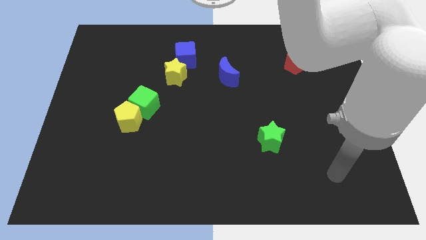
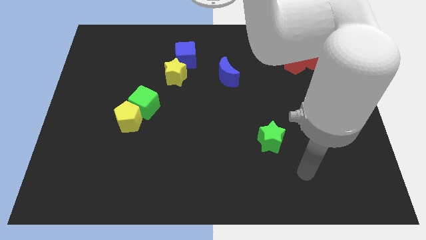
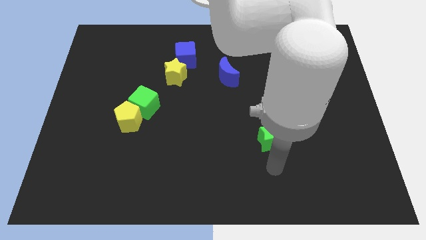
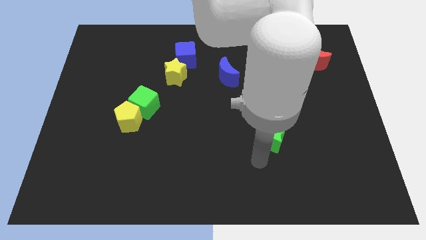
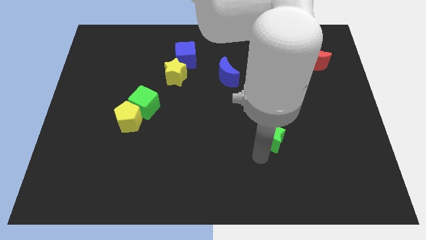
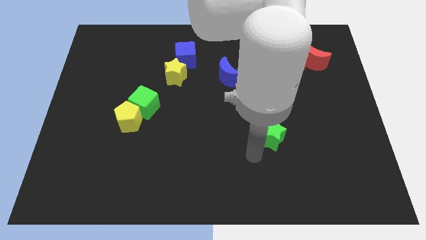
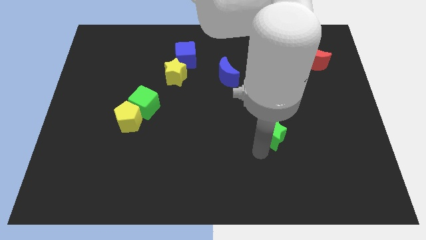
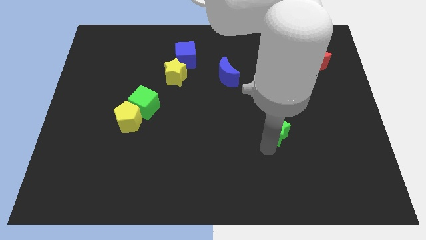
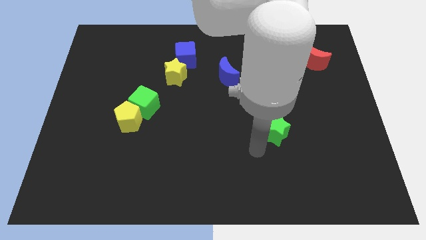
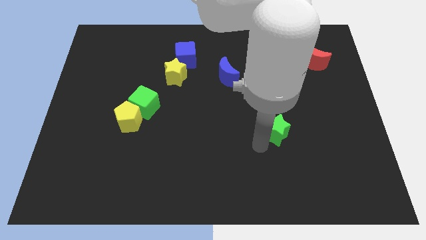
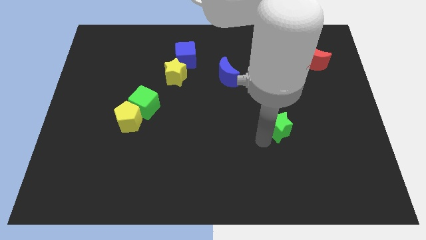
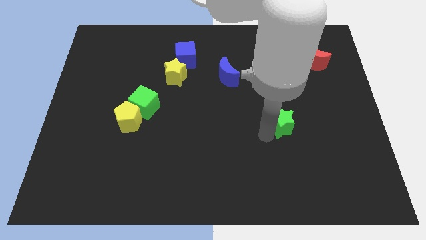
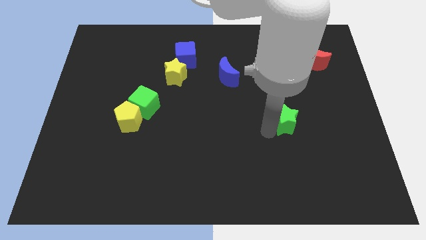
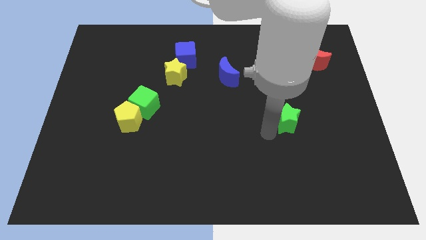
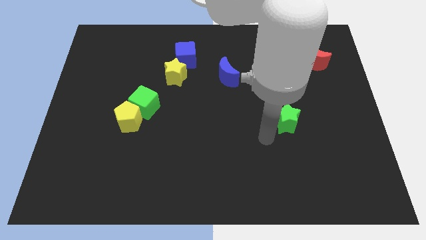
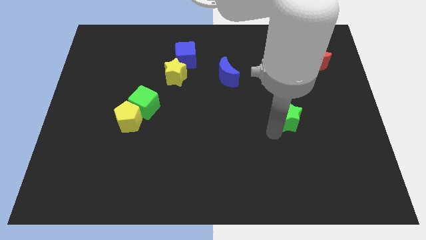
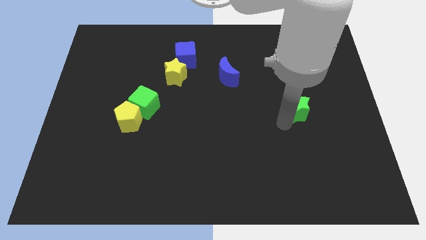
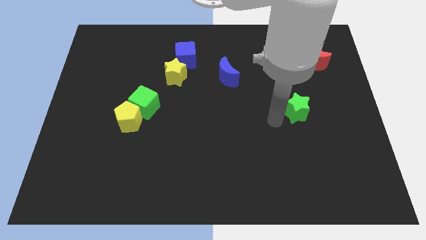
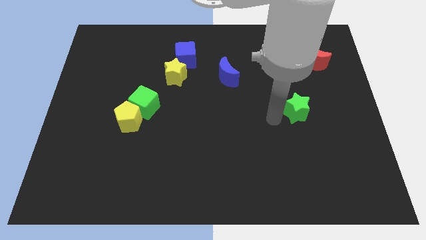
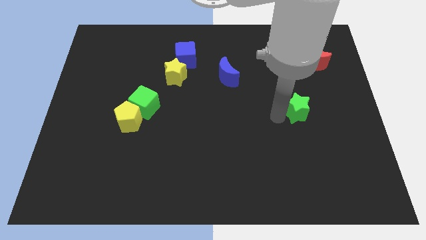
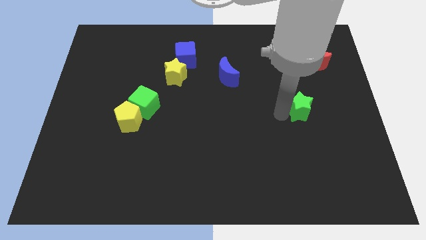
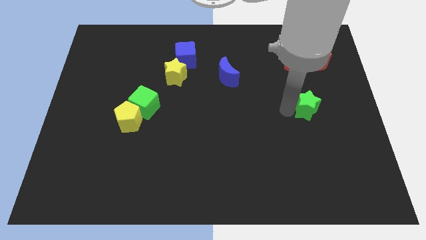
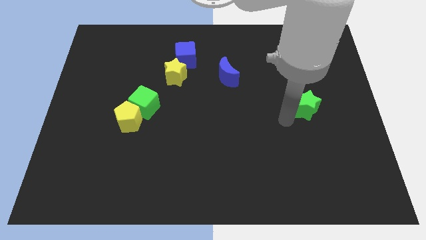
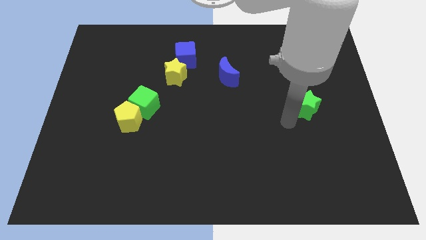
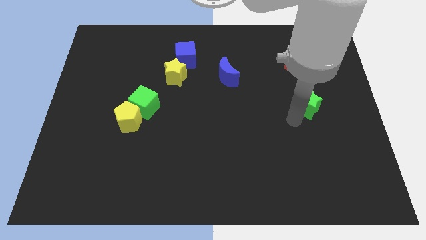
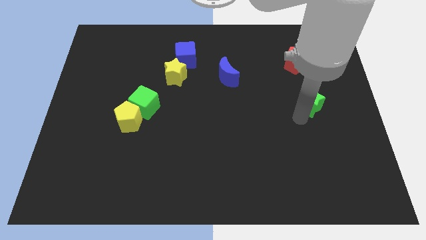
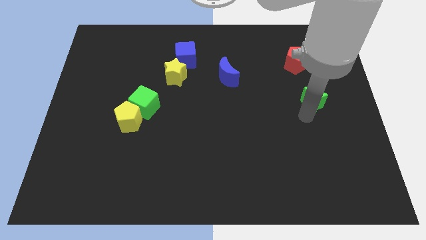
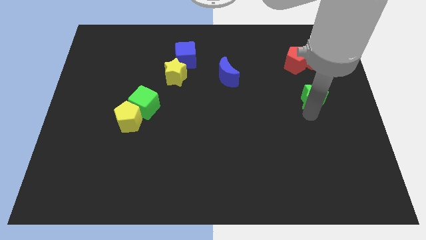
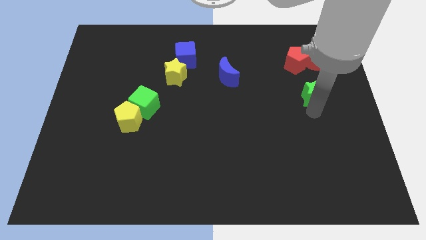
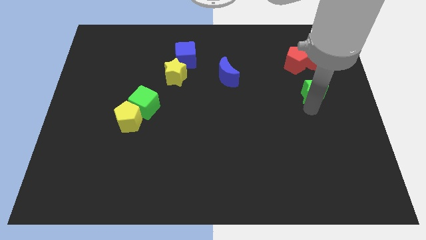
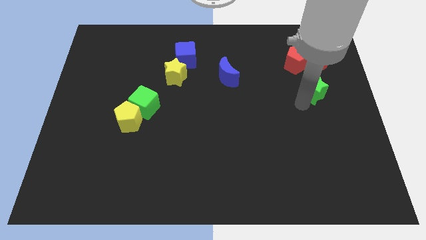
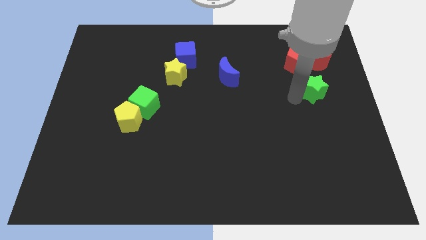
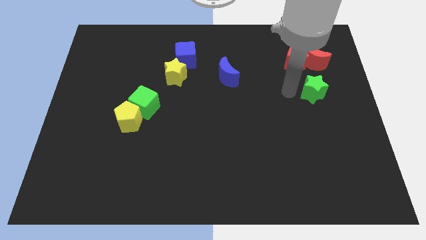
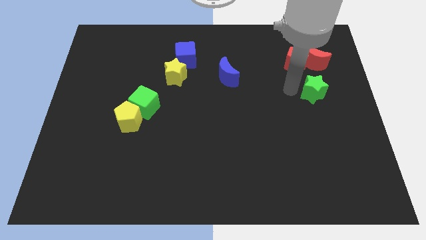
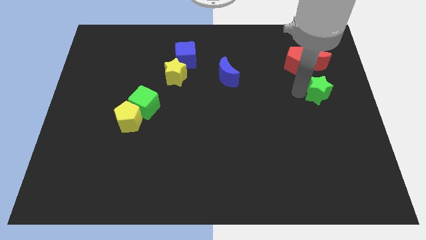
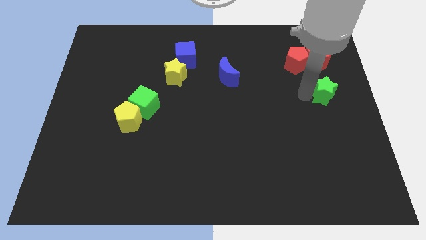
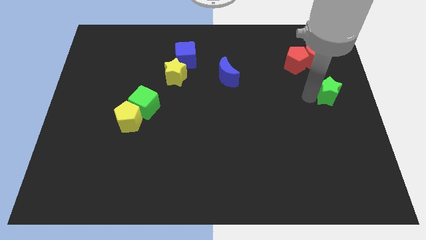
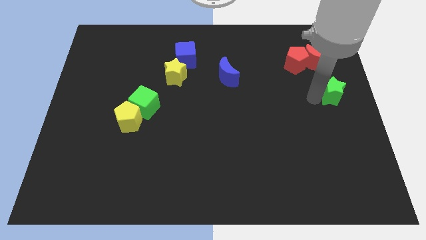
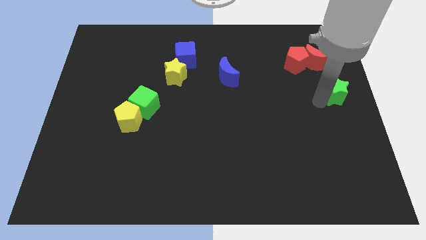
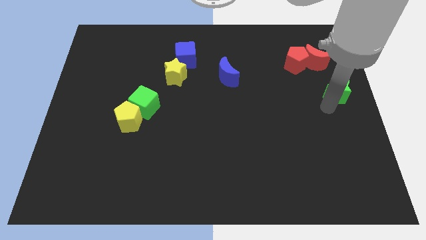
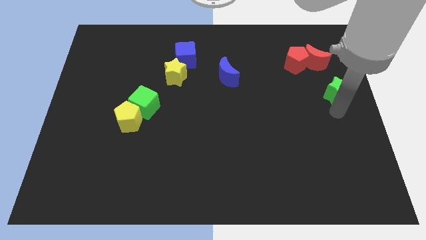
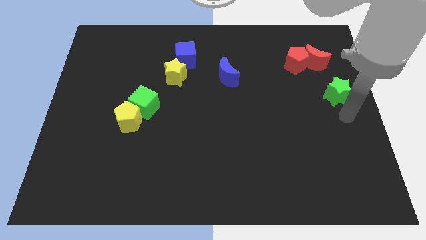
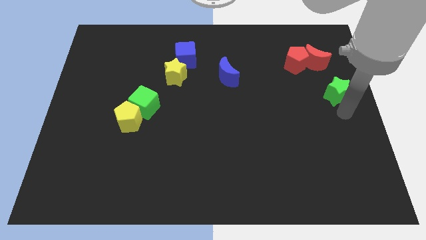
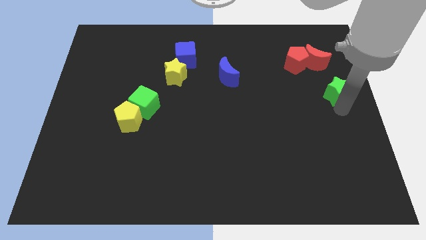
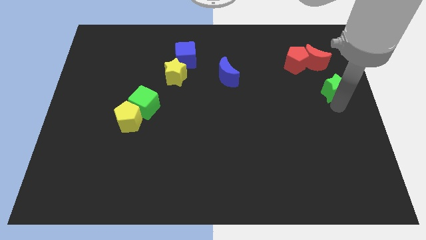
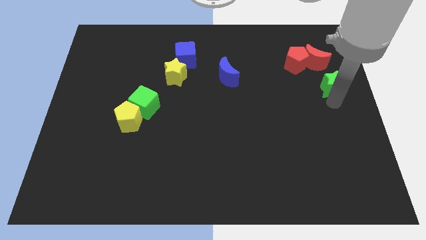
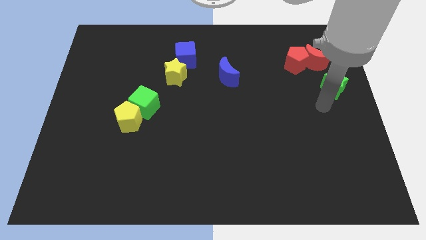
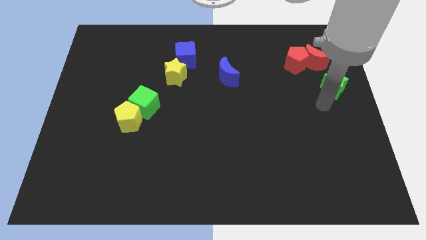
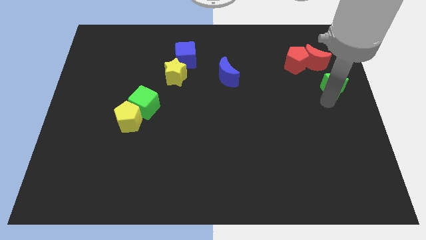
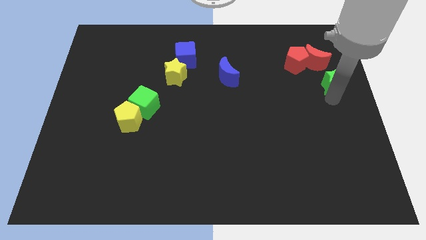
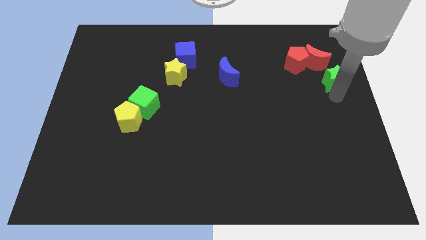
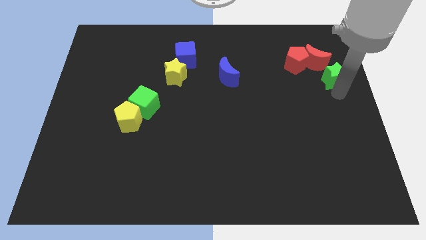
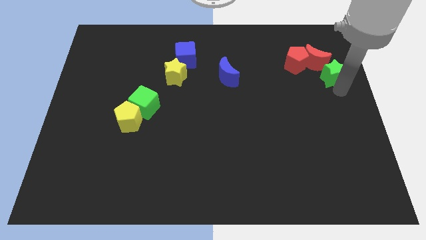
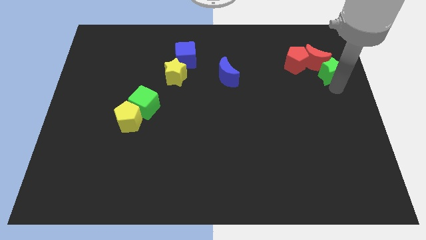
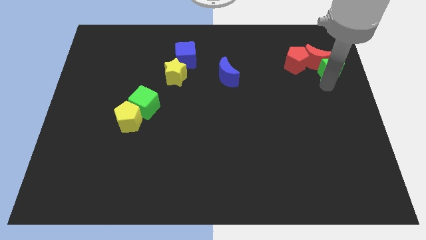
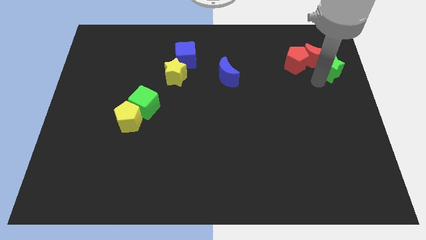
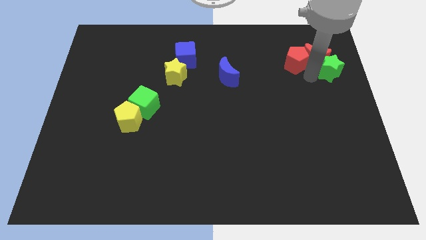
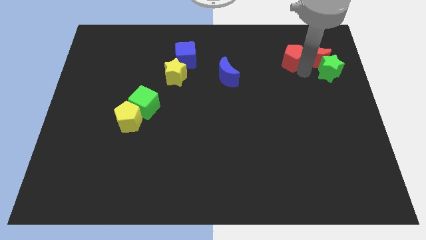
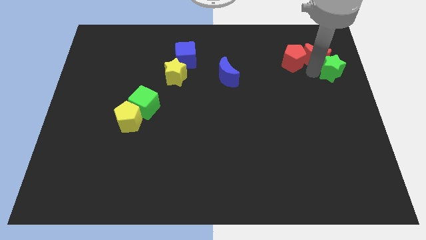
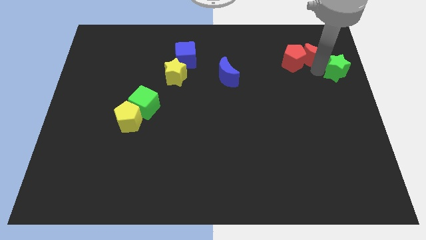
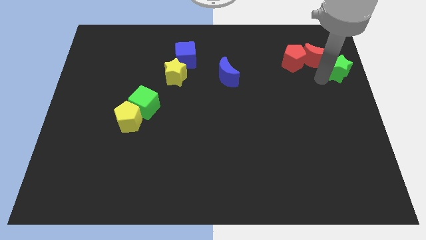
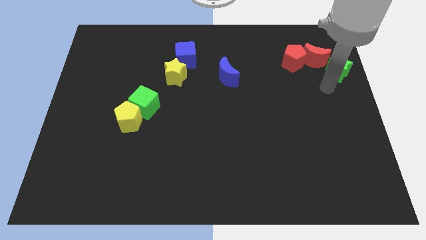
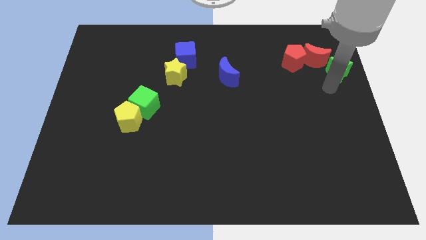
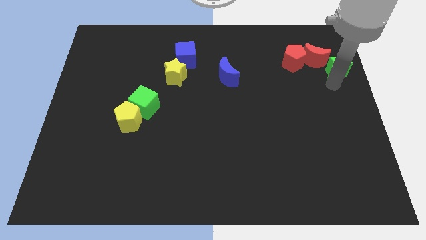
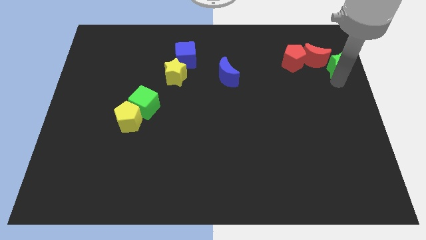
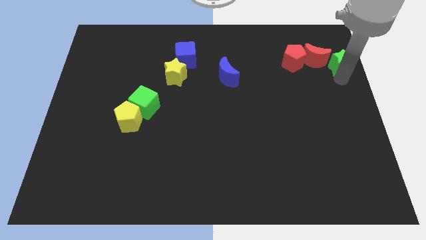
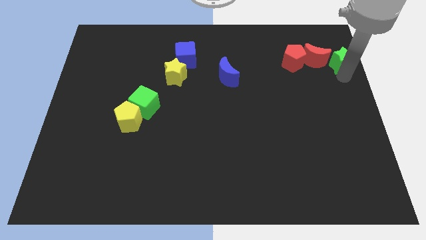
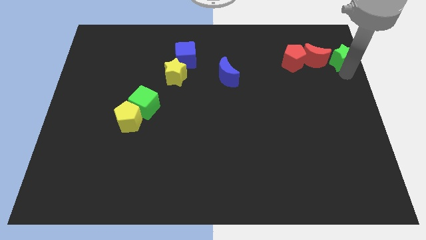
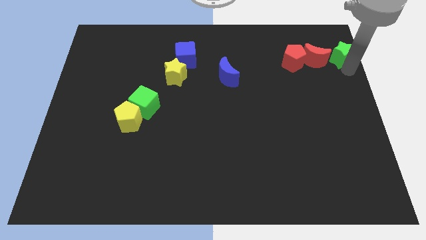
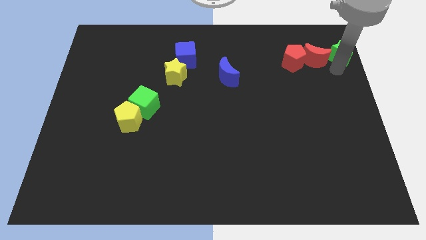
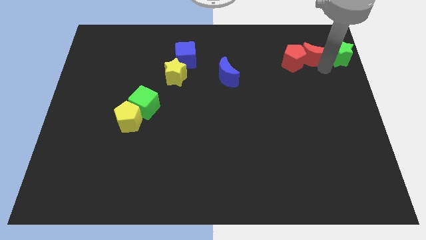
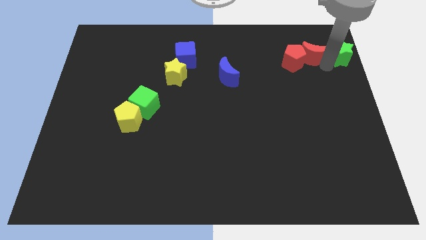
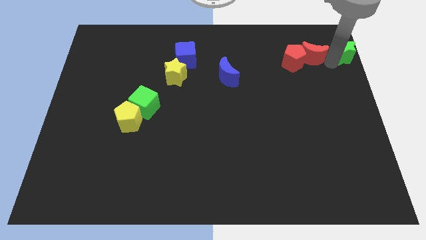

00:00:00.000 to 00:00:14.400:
slide the green star to the top right
